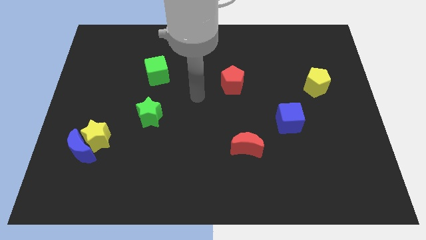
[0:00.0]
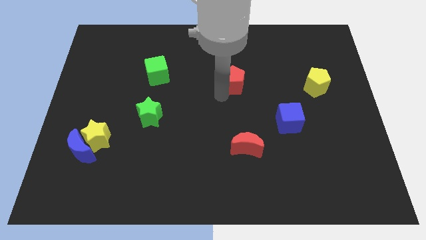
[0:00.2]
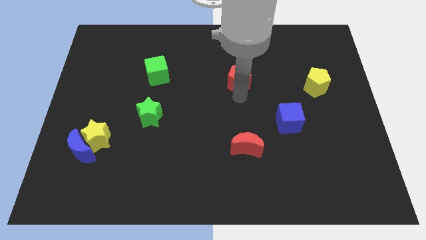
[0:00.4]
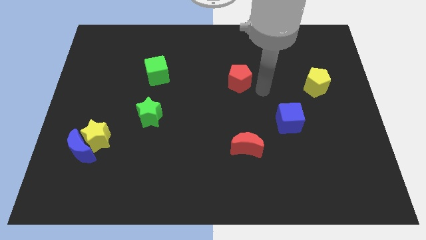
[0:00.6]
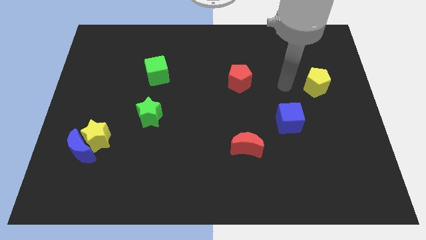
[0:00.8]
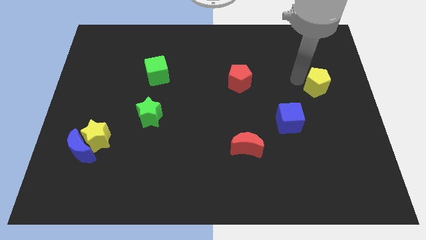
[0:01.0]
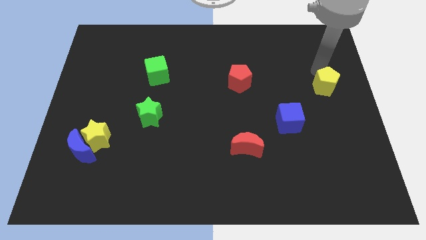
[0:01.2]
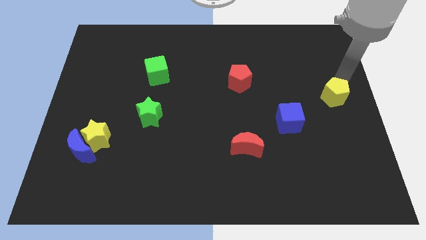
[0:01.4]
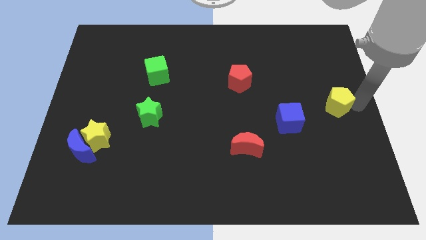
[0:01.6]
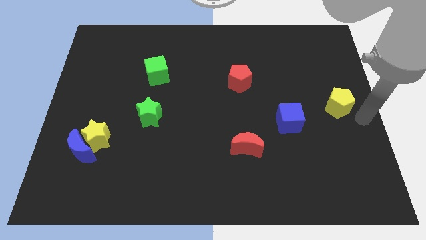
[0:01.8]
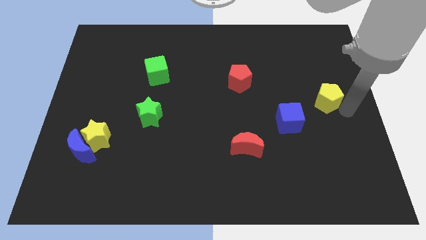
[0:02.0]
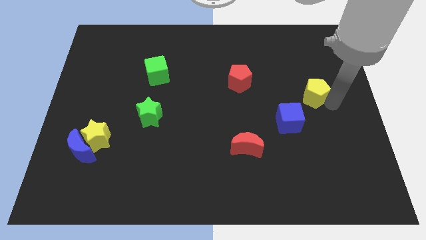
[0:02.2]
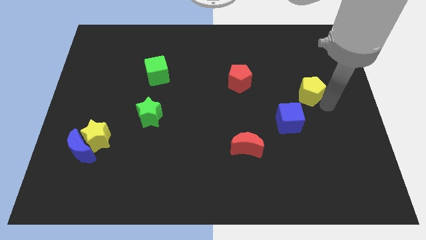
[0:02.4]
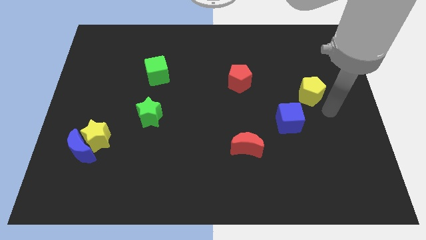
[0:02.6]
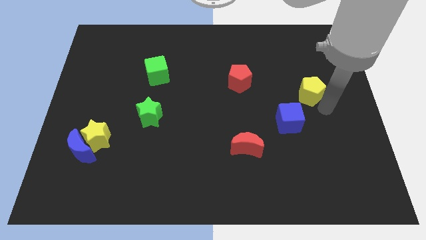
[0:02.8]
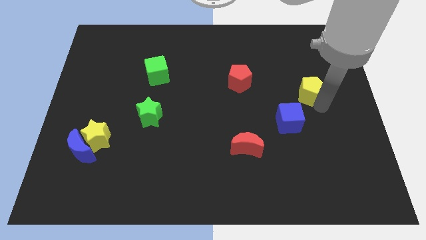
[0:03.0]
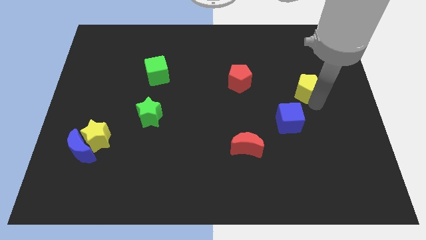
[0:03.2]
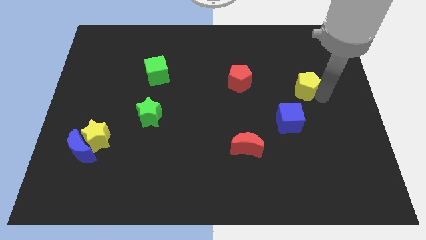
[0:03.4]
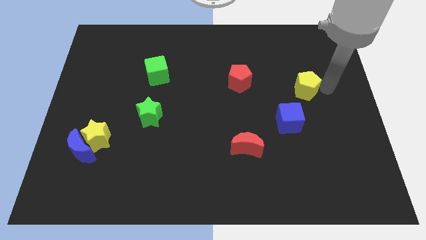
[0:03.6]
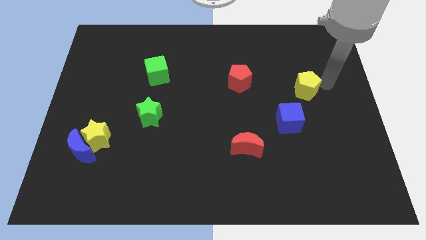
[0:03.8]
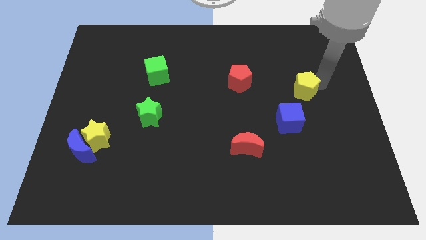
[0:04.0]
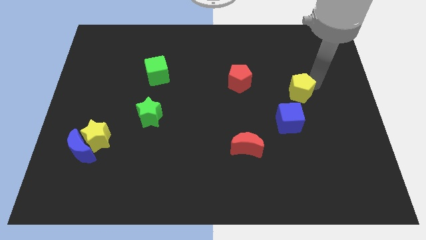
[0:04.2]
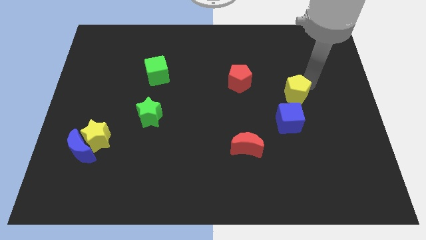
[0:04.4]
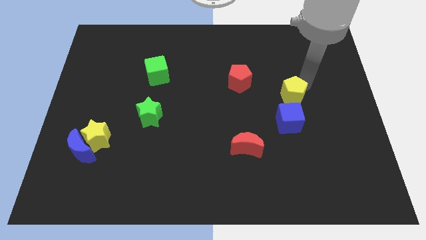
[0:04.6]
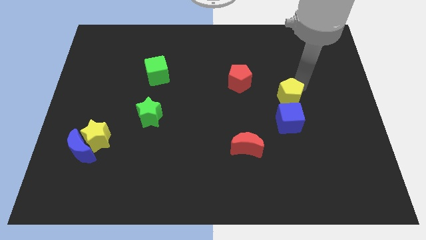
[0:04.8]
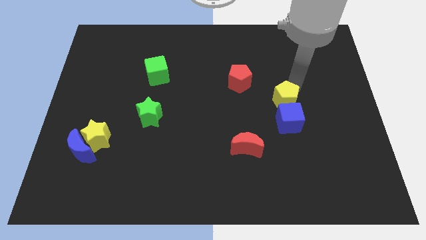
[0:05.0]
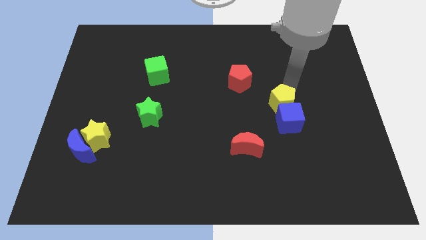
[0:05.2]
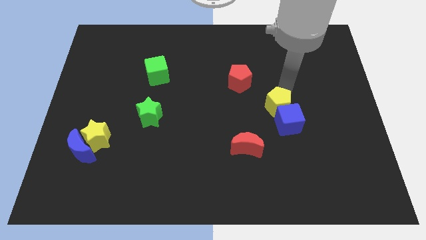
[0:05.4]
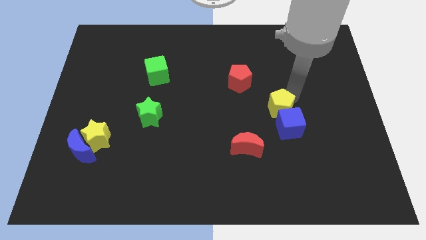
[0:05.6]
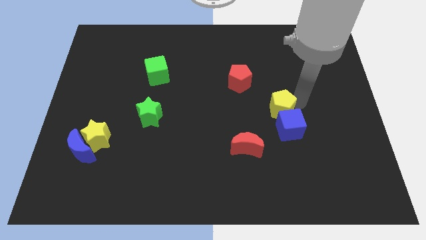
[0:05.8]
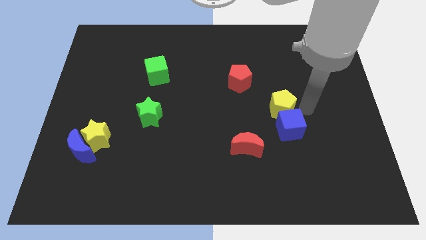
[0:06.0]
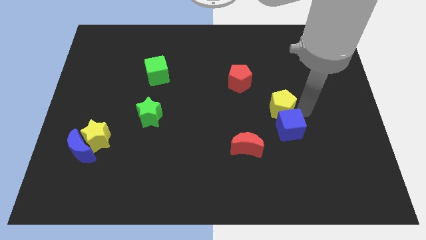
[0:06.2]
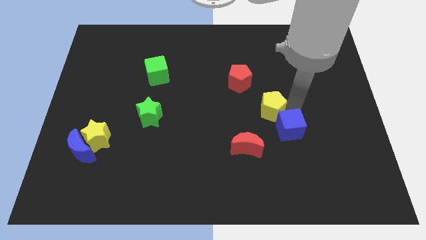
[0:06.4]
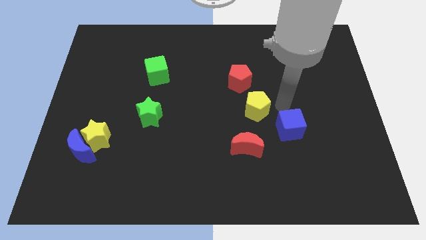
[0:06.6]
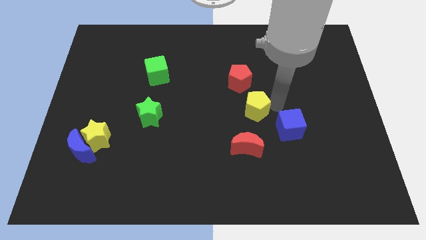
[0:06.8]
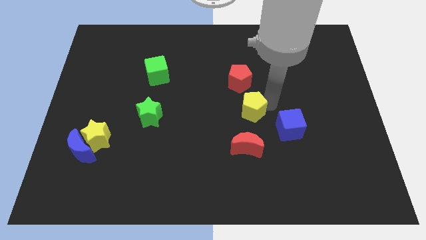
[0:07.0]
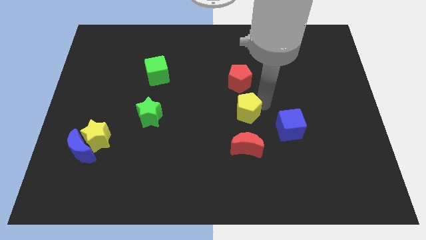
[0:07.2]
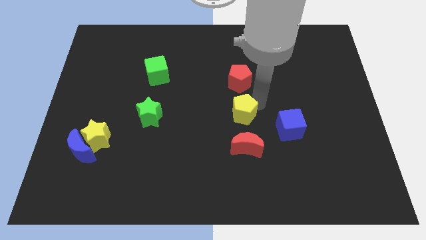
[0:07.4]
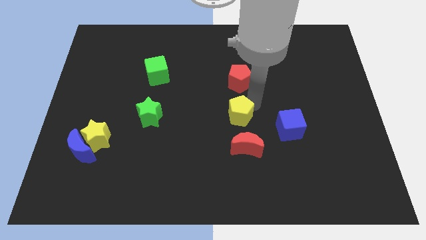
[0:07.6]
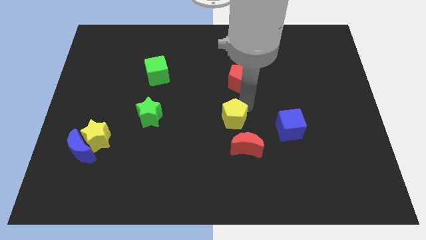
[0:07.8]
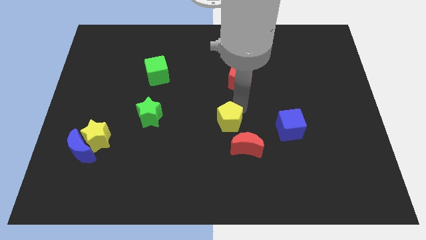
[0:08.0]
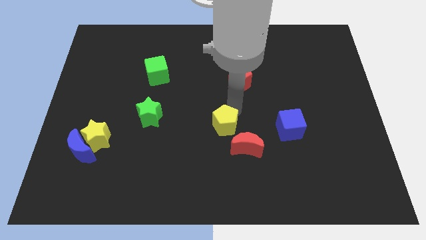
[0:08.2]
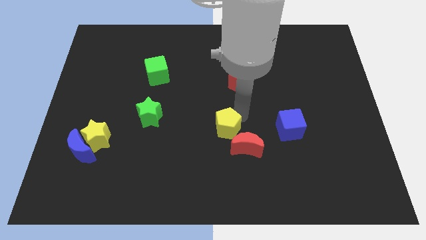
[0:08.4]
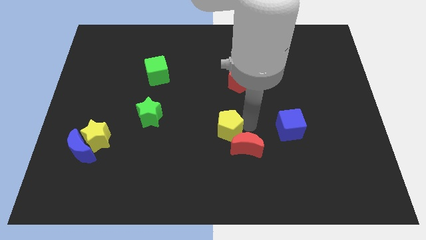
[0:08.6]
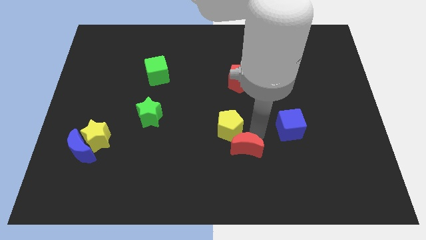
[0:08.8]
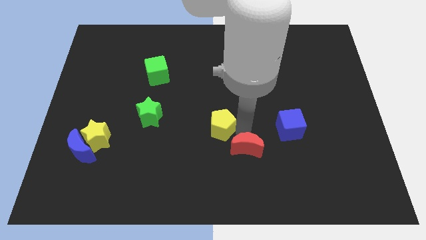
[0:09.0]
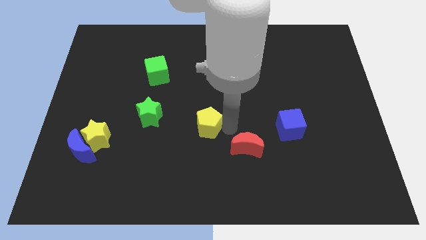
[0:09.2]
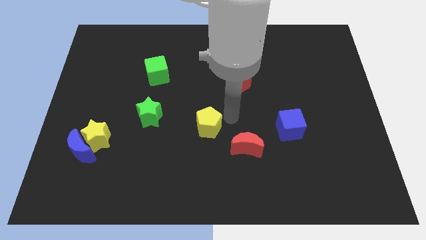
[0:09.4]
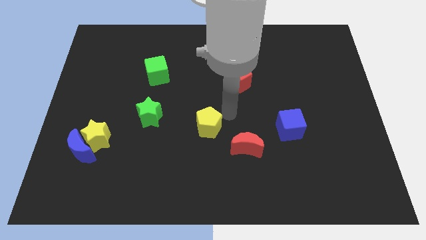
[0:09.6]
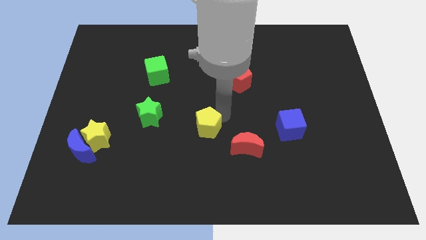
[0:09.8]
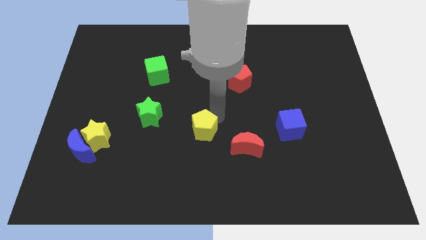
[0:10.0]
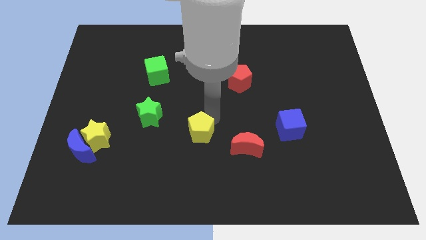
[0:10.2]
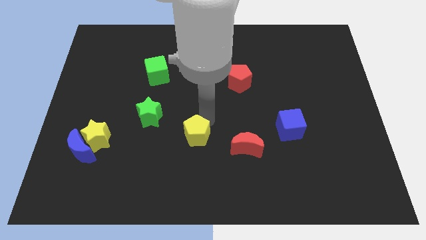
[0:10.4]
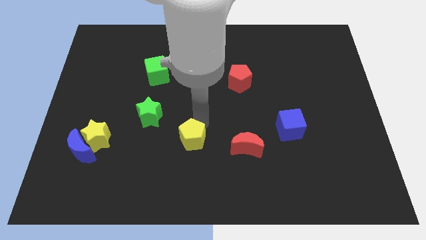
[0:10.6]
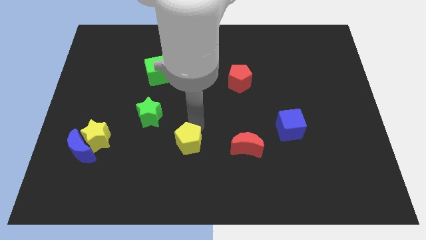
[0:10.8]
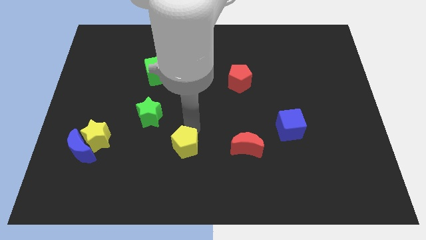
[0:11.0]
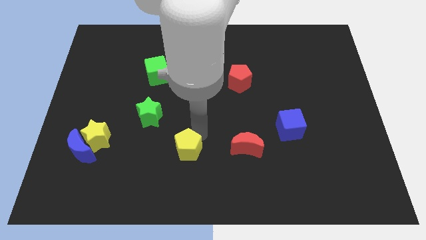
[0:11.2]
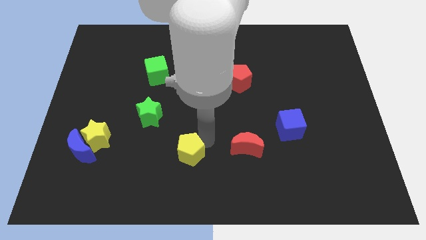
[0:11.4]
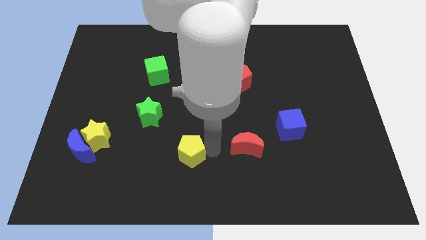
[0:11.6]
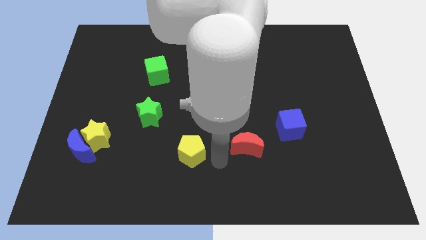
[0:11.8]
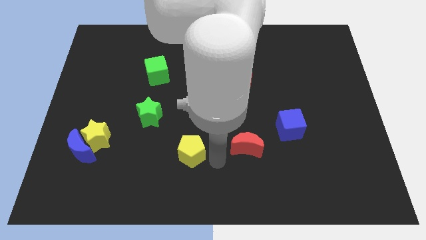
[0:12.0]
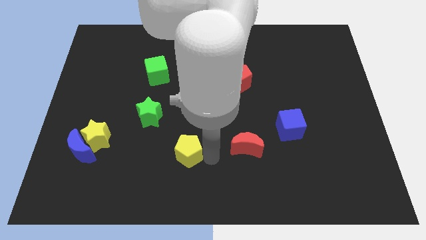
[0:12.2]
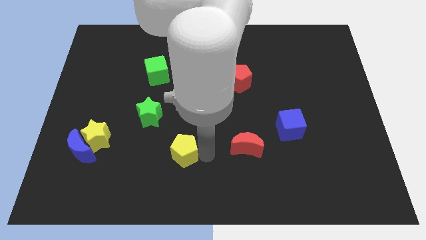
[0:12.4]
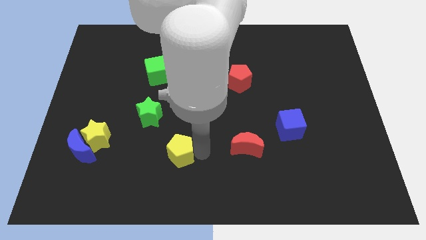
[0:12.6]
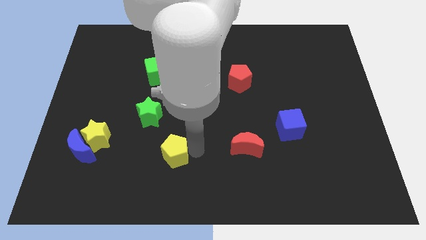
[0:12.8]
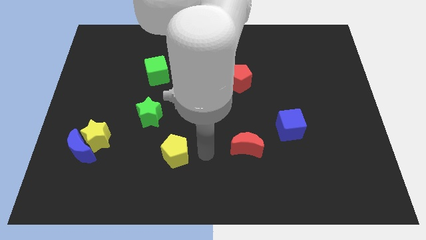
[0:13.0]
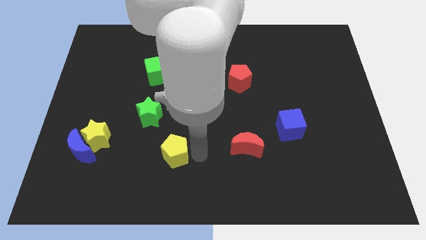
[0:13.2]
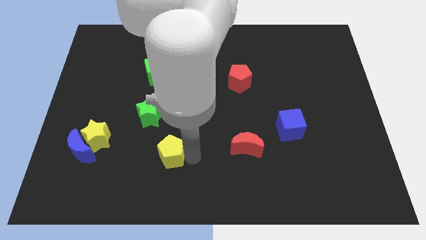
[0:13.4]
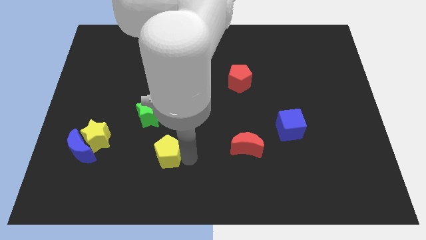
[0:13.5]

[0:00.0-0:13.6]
move the yellow pentagon below the green star
